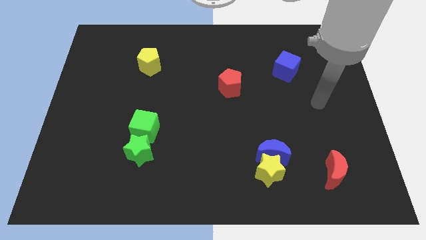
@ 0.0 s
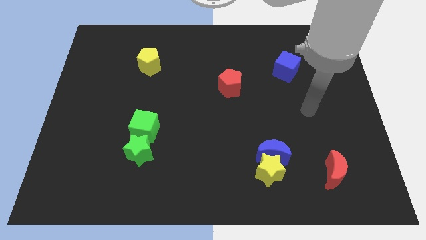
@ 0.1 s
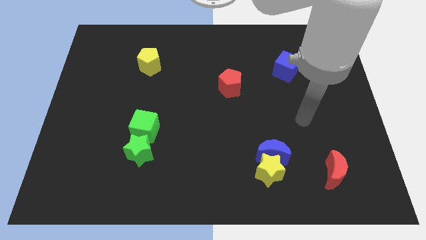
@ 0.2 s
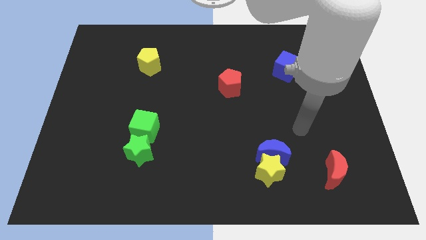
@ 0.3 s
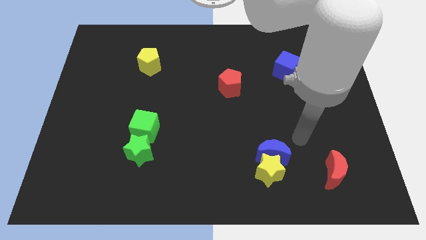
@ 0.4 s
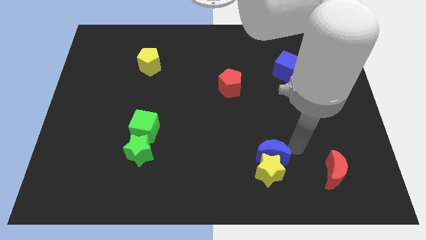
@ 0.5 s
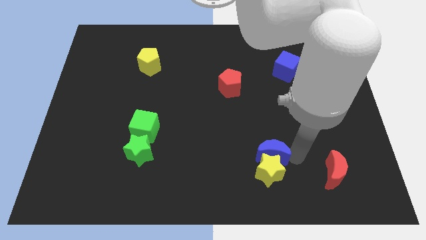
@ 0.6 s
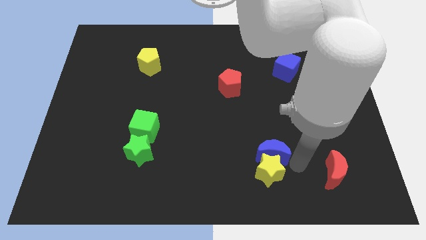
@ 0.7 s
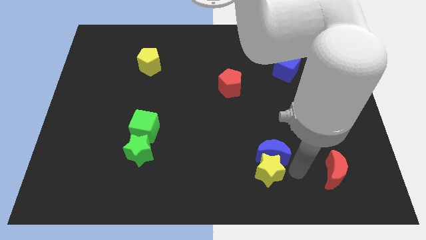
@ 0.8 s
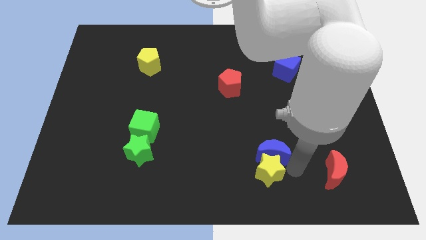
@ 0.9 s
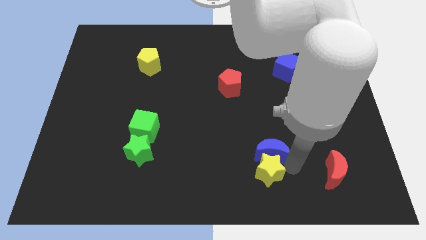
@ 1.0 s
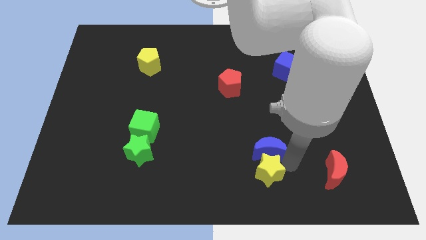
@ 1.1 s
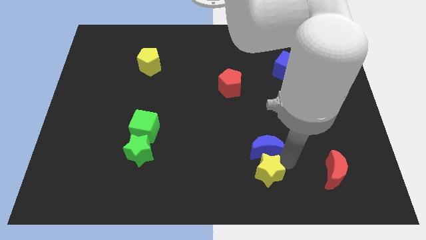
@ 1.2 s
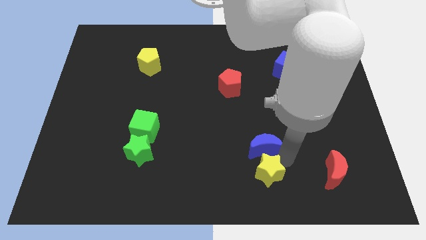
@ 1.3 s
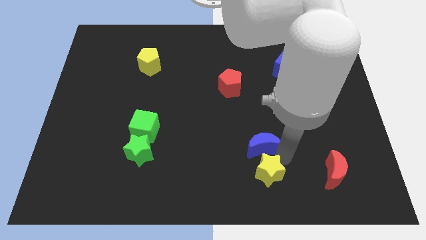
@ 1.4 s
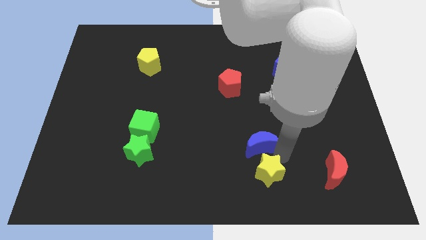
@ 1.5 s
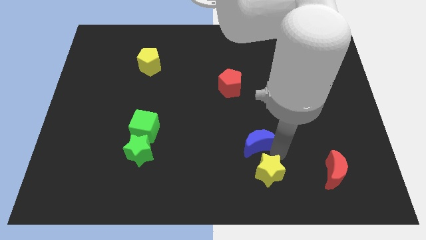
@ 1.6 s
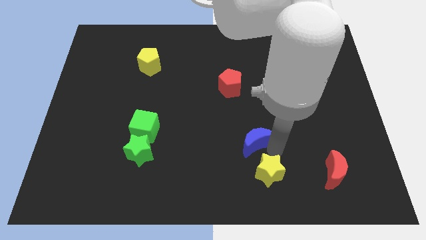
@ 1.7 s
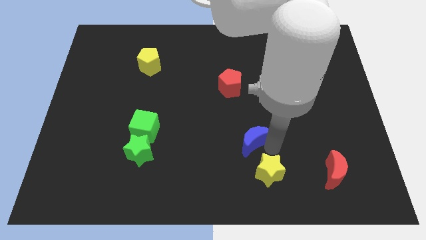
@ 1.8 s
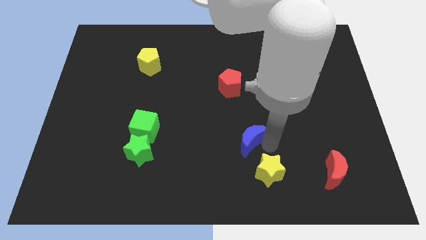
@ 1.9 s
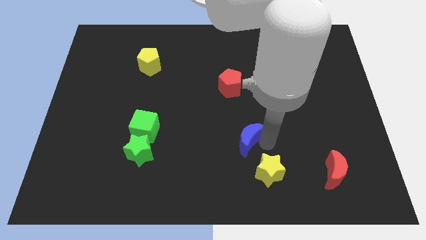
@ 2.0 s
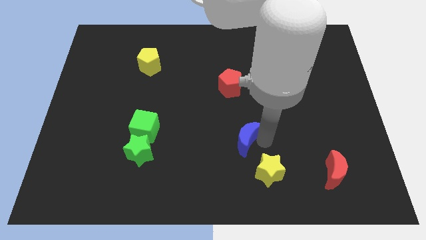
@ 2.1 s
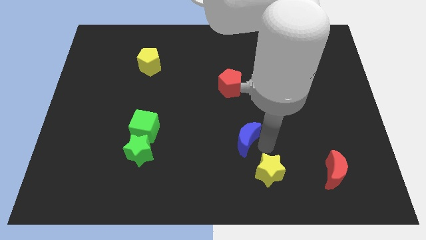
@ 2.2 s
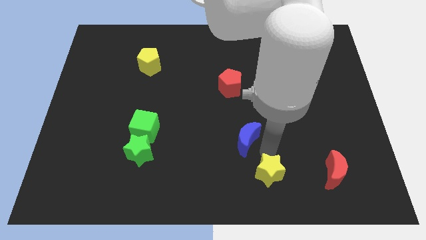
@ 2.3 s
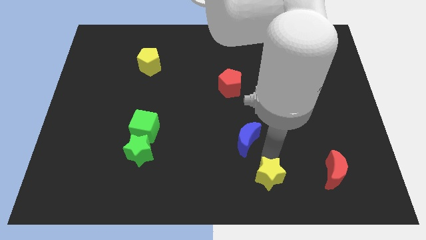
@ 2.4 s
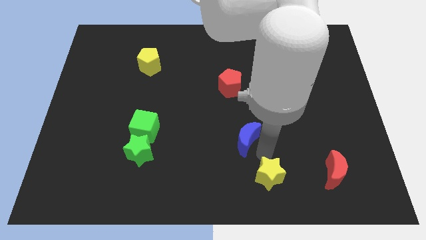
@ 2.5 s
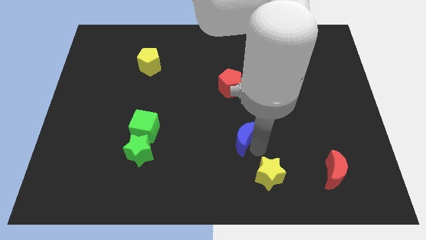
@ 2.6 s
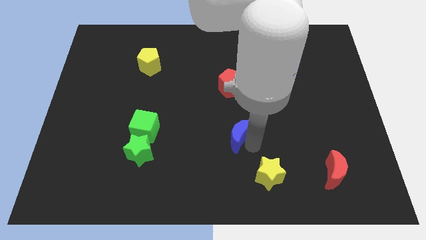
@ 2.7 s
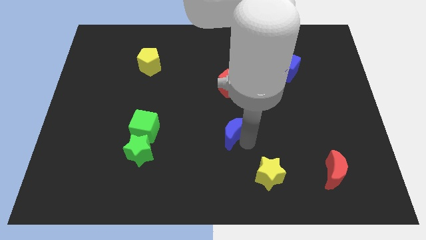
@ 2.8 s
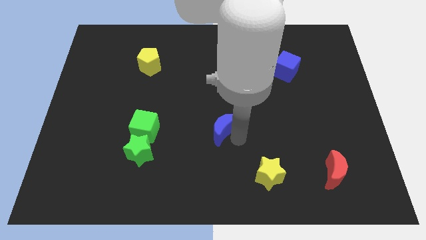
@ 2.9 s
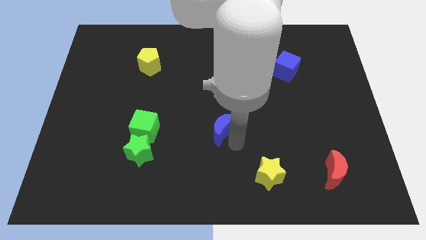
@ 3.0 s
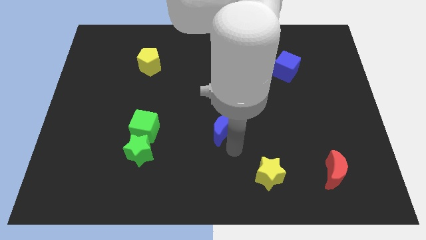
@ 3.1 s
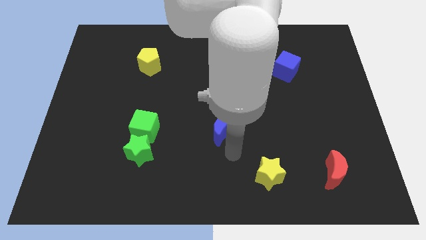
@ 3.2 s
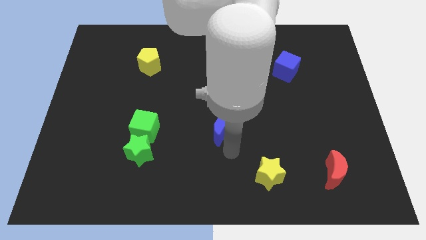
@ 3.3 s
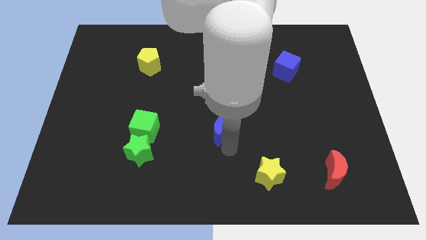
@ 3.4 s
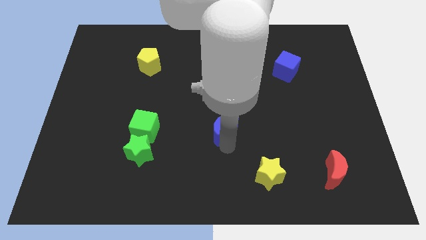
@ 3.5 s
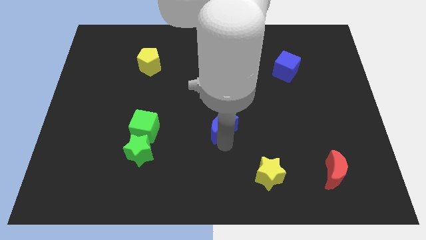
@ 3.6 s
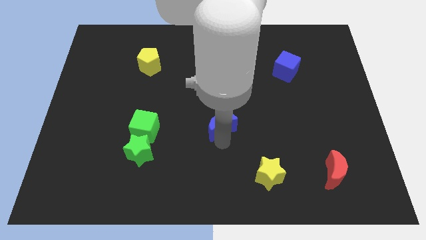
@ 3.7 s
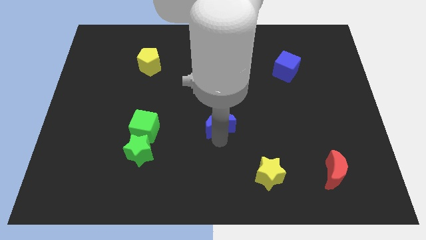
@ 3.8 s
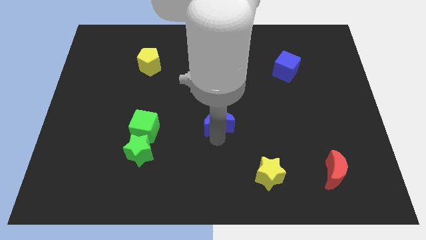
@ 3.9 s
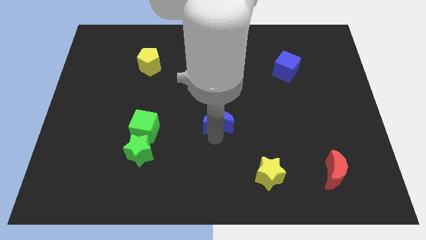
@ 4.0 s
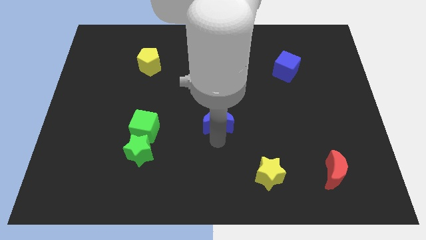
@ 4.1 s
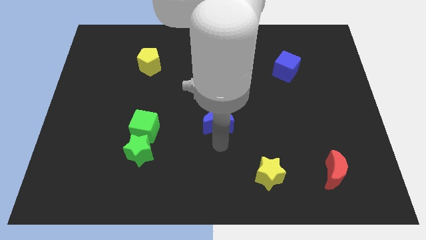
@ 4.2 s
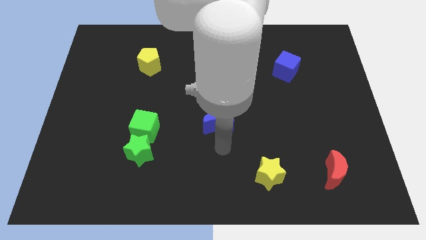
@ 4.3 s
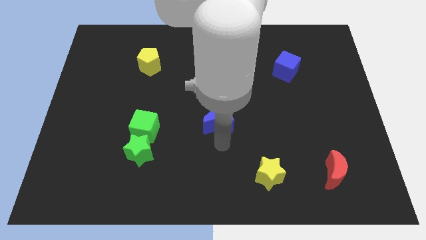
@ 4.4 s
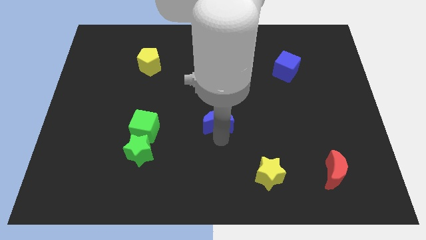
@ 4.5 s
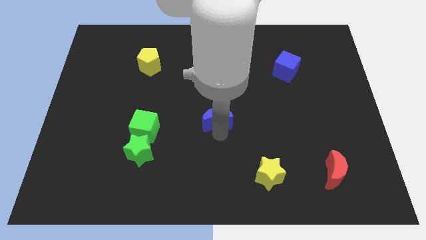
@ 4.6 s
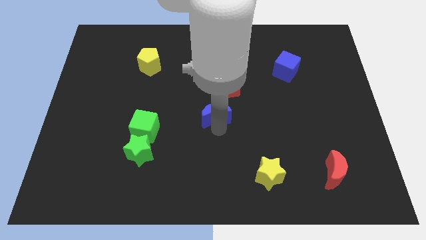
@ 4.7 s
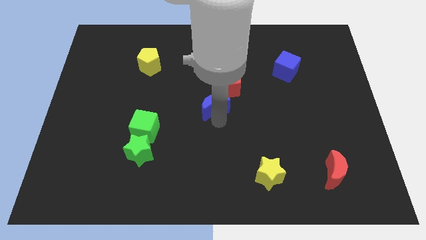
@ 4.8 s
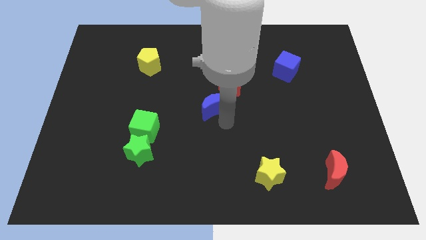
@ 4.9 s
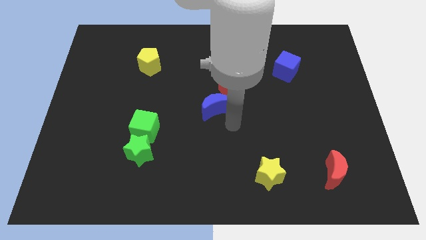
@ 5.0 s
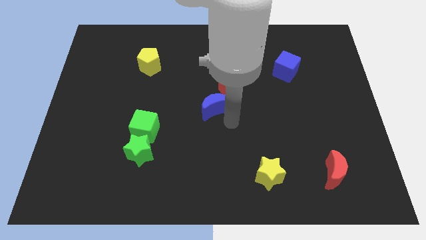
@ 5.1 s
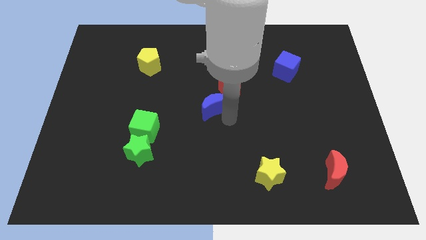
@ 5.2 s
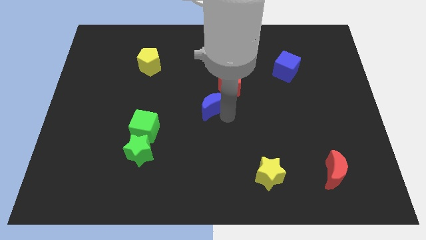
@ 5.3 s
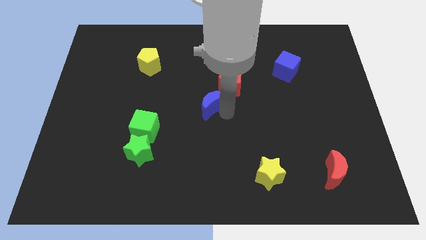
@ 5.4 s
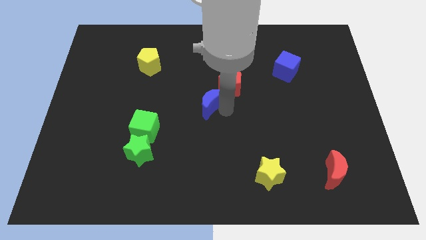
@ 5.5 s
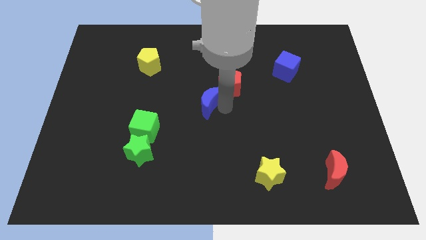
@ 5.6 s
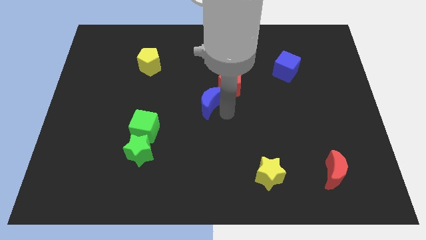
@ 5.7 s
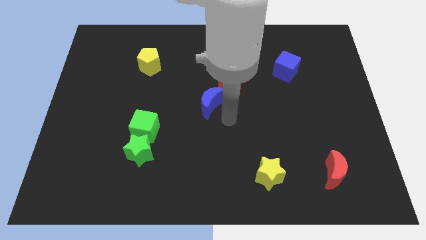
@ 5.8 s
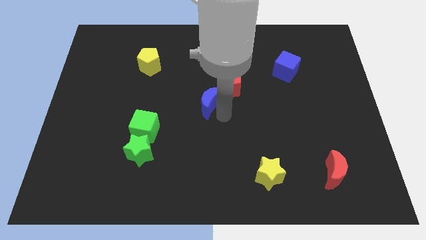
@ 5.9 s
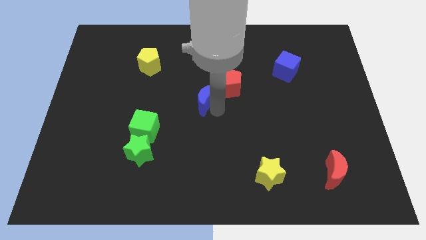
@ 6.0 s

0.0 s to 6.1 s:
put the blue moon to the left of the red pentagon

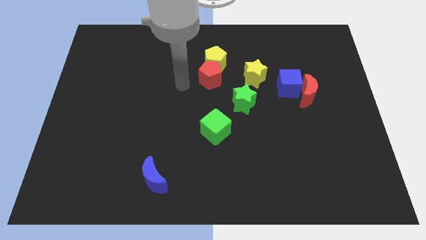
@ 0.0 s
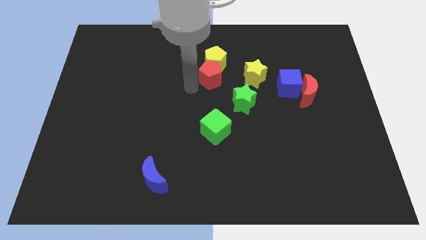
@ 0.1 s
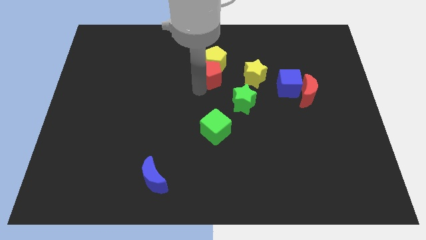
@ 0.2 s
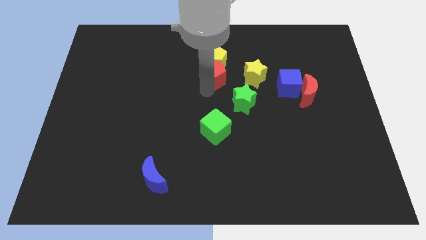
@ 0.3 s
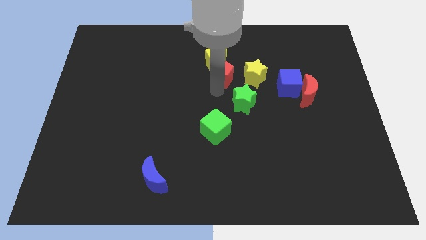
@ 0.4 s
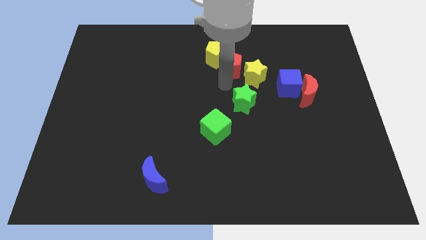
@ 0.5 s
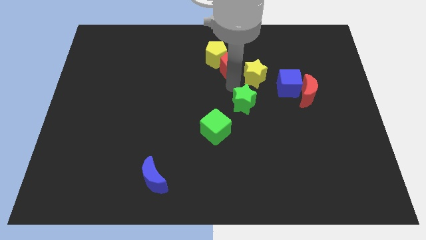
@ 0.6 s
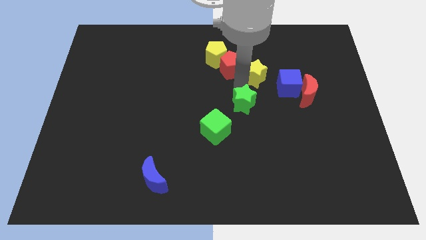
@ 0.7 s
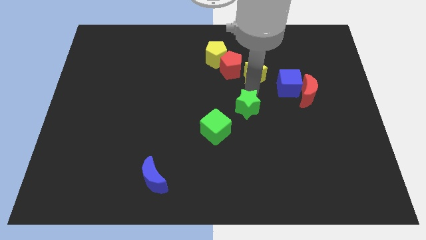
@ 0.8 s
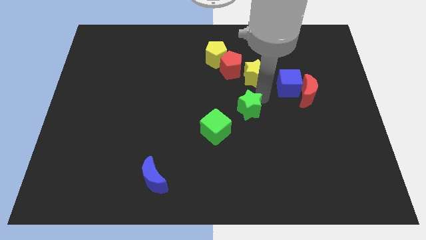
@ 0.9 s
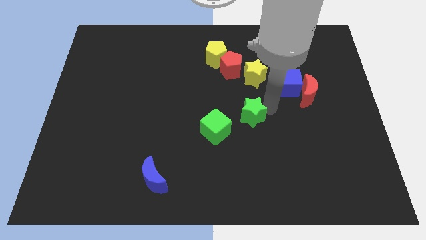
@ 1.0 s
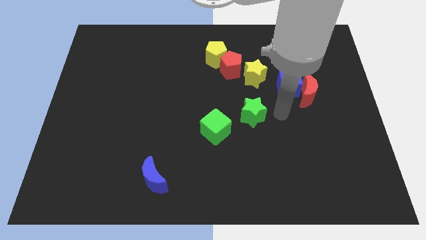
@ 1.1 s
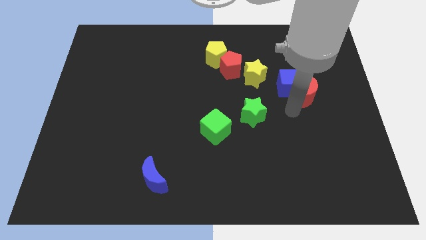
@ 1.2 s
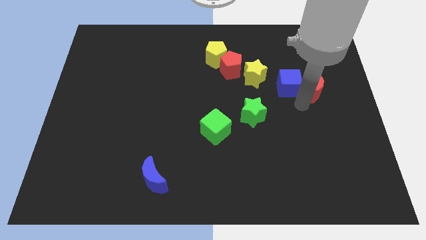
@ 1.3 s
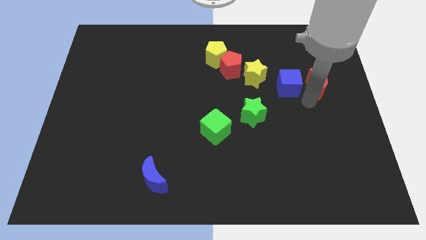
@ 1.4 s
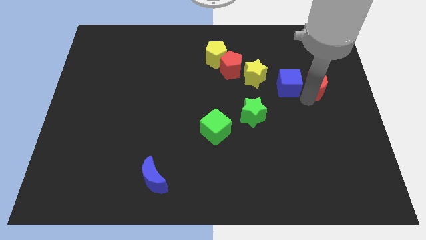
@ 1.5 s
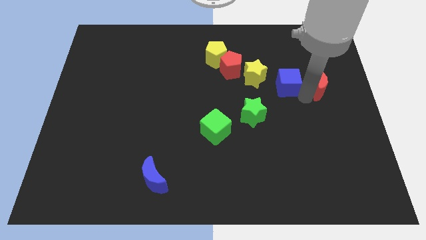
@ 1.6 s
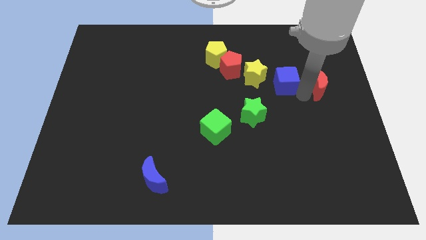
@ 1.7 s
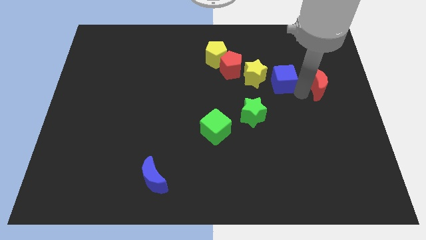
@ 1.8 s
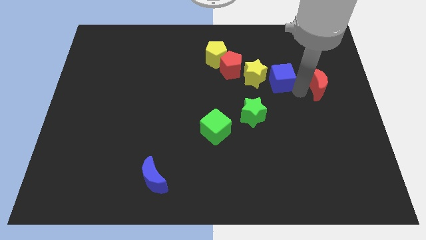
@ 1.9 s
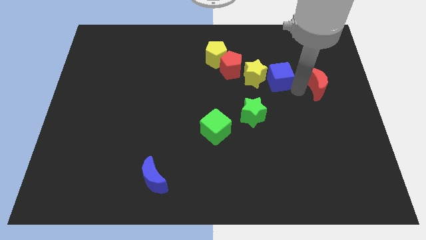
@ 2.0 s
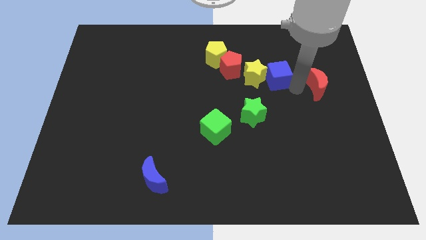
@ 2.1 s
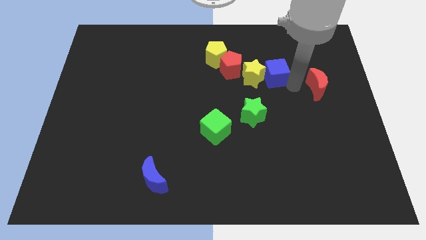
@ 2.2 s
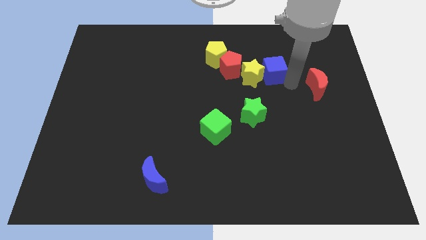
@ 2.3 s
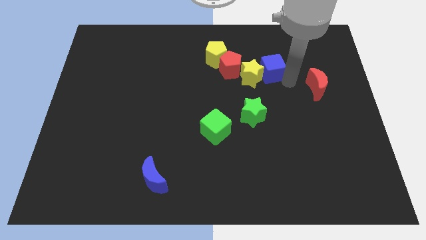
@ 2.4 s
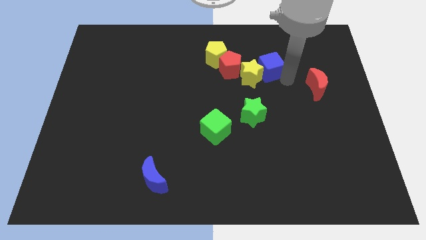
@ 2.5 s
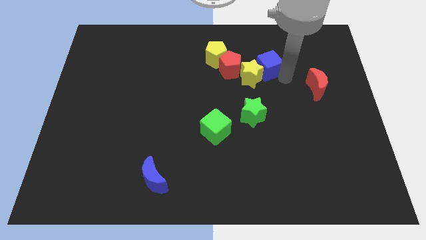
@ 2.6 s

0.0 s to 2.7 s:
slide the blue cube right of the yellow pentagon
